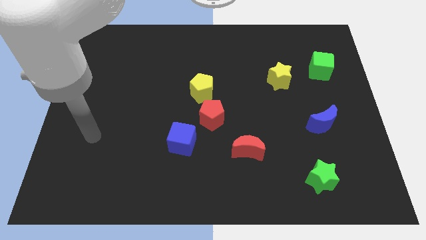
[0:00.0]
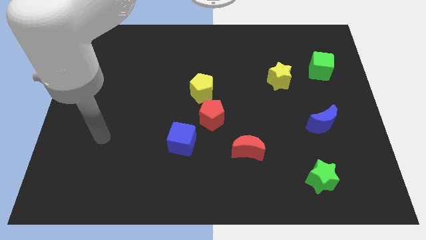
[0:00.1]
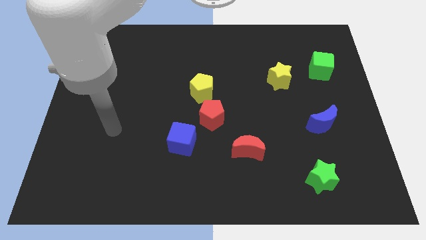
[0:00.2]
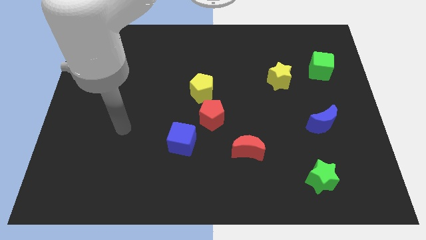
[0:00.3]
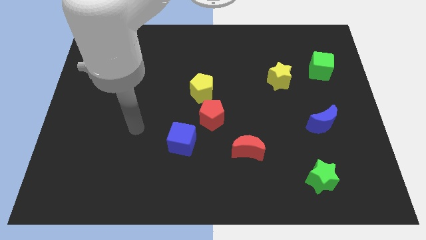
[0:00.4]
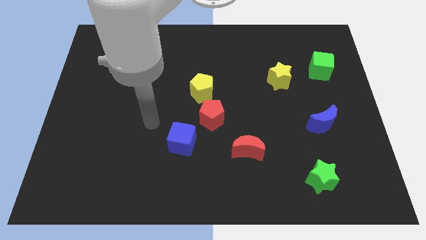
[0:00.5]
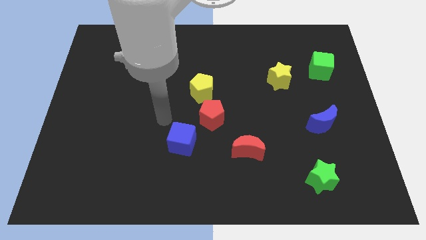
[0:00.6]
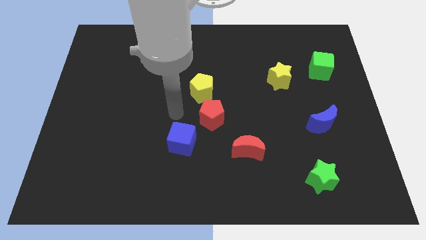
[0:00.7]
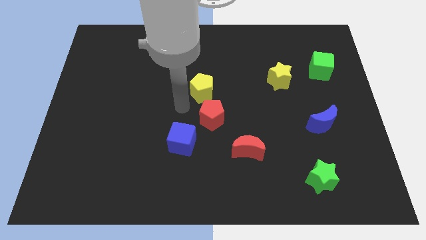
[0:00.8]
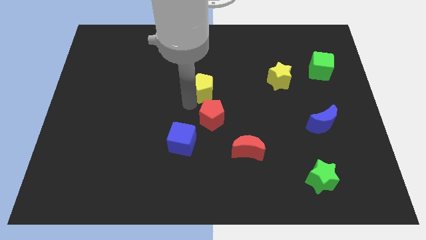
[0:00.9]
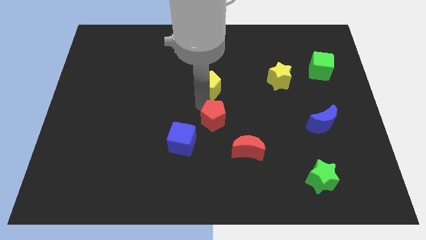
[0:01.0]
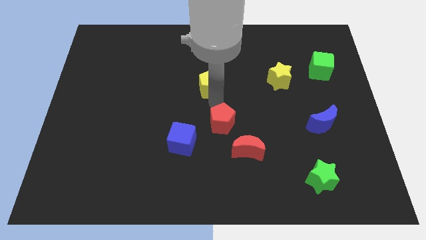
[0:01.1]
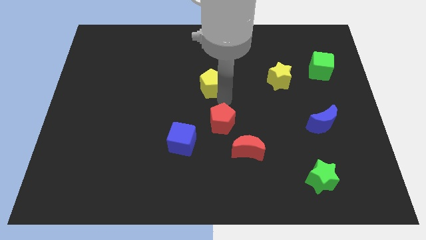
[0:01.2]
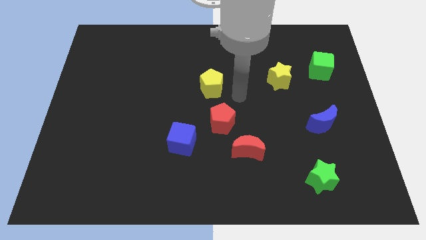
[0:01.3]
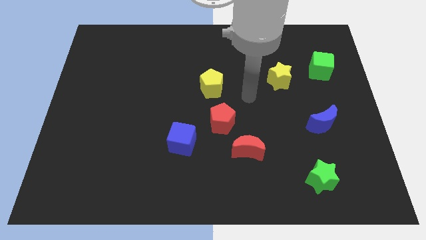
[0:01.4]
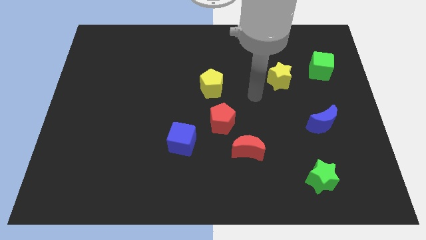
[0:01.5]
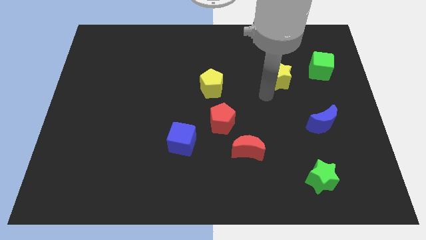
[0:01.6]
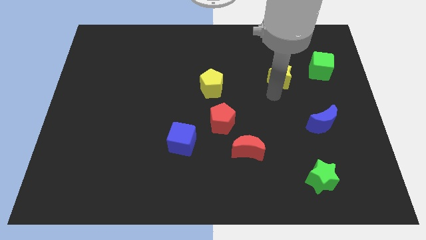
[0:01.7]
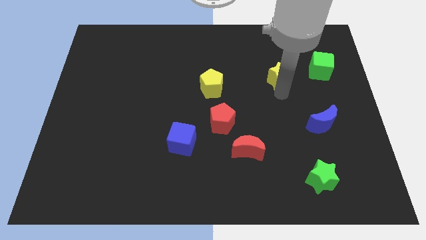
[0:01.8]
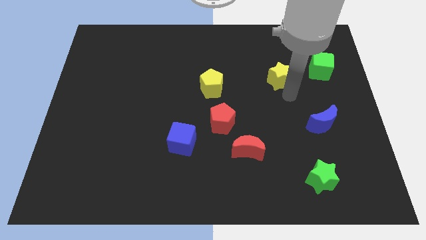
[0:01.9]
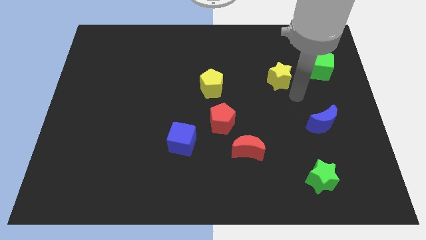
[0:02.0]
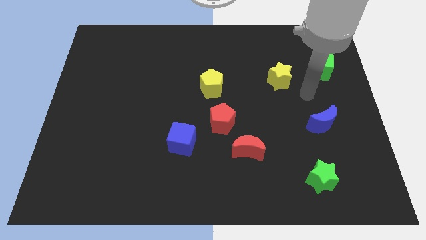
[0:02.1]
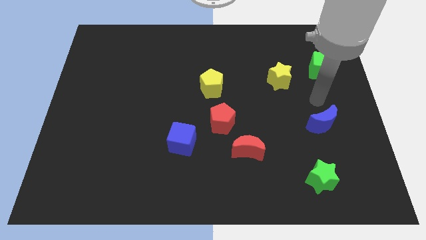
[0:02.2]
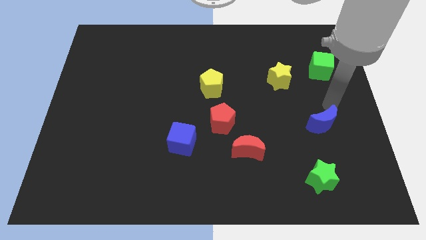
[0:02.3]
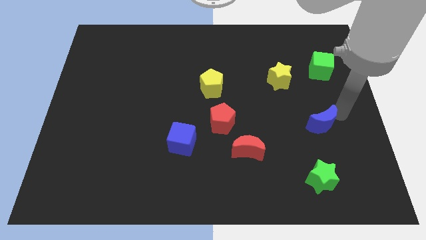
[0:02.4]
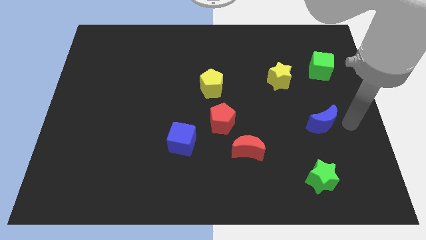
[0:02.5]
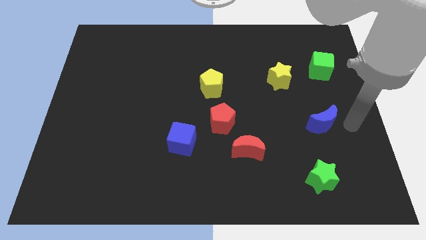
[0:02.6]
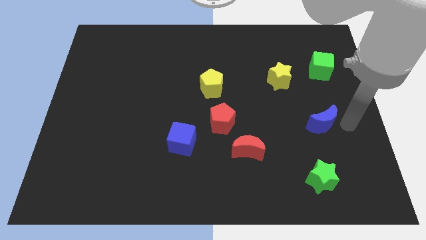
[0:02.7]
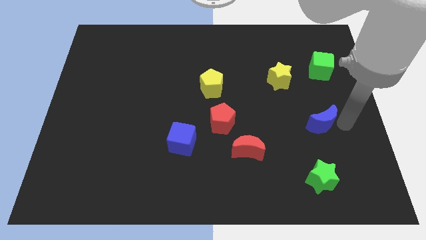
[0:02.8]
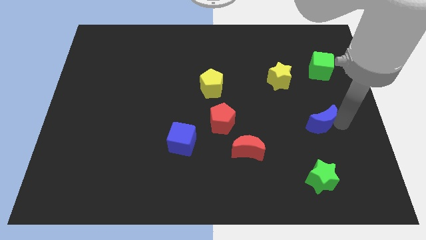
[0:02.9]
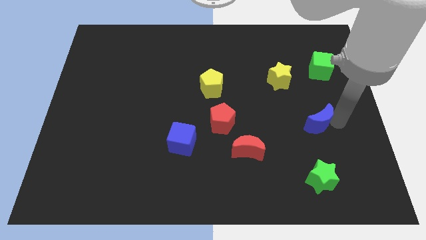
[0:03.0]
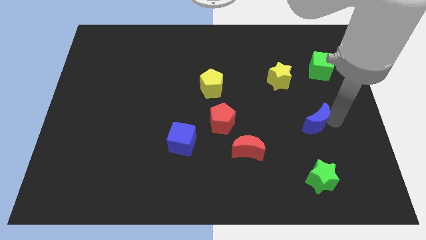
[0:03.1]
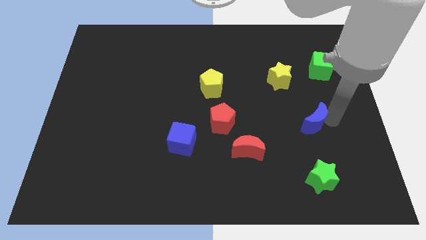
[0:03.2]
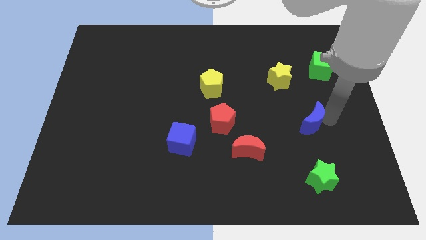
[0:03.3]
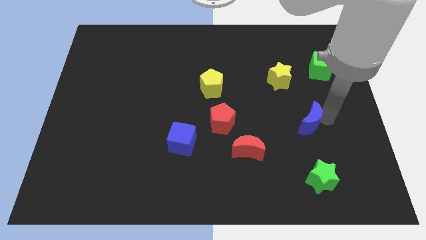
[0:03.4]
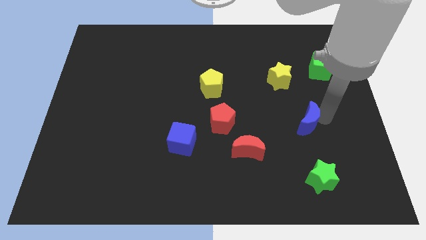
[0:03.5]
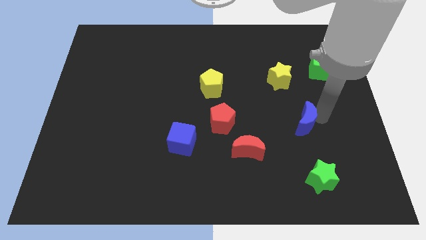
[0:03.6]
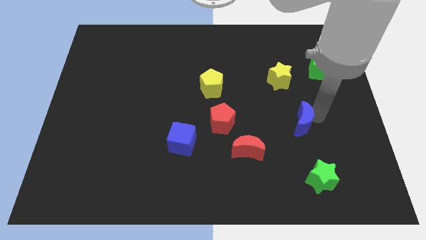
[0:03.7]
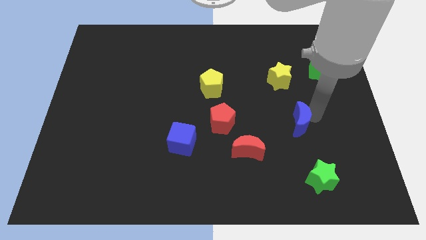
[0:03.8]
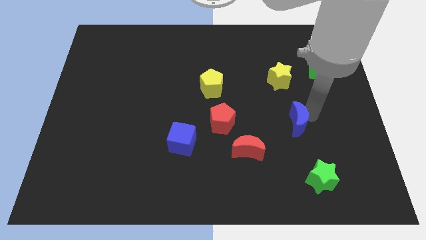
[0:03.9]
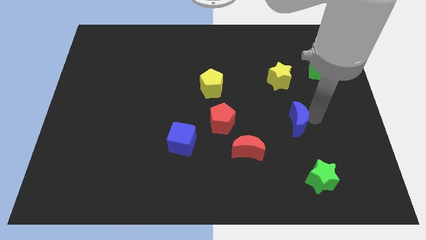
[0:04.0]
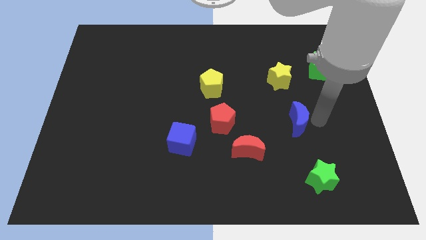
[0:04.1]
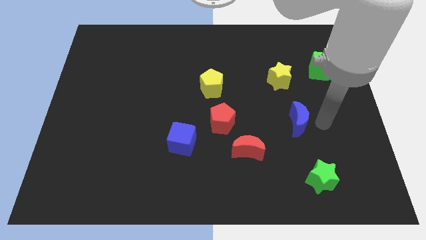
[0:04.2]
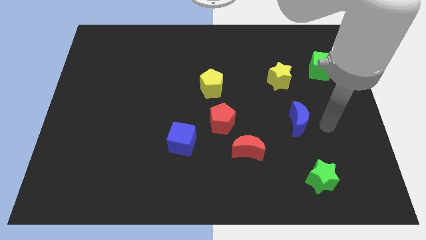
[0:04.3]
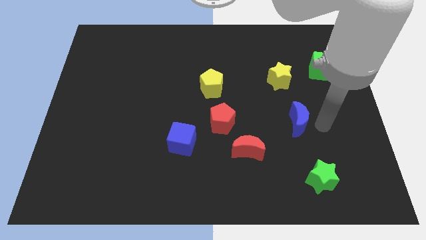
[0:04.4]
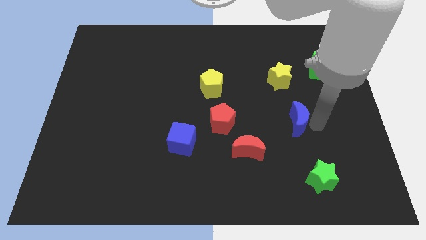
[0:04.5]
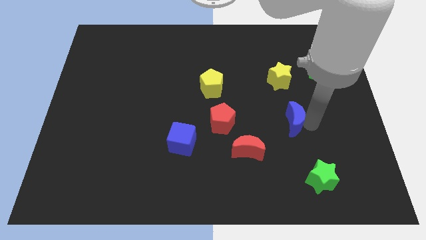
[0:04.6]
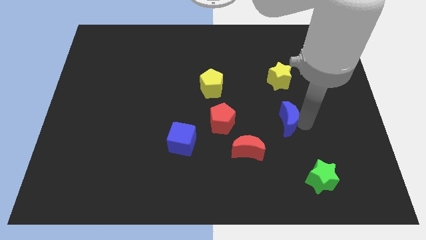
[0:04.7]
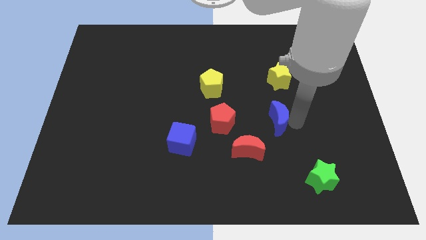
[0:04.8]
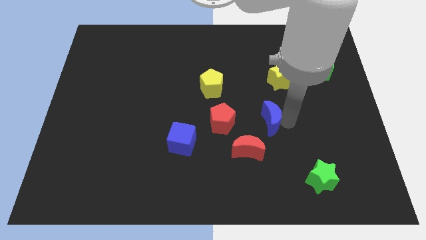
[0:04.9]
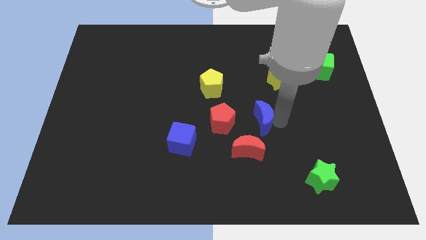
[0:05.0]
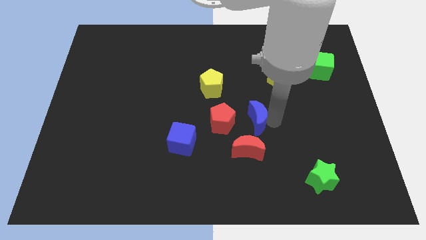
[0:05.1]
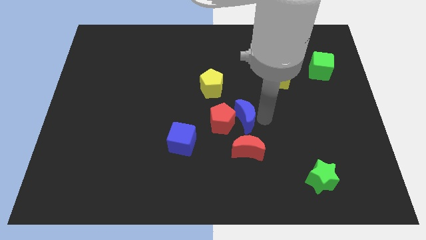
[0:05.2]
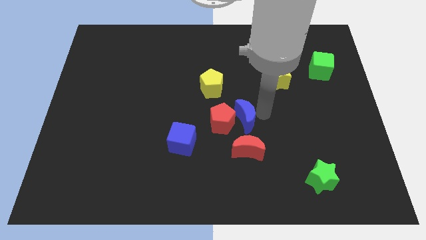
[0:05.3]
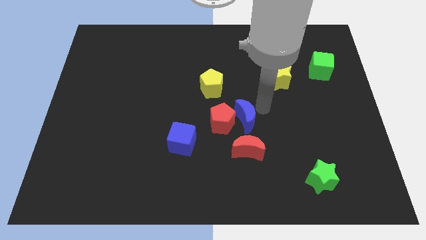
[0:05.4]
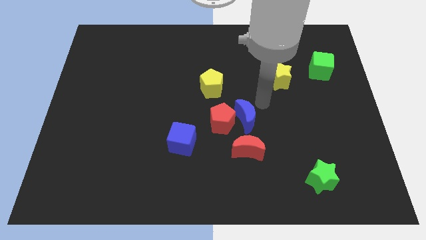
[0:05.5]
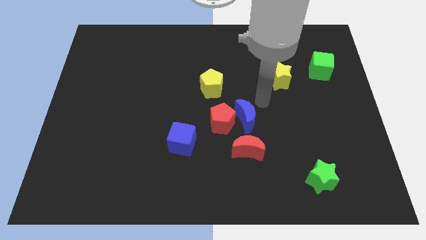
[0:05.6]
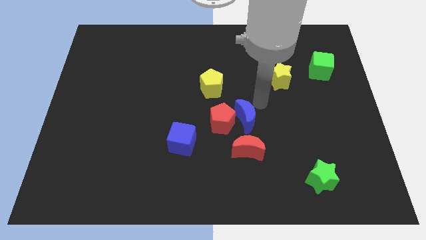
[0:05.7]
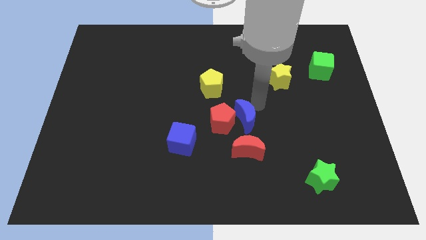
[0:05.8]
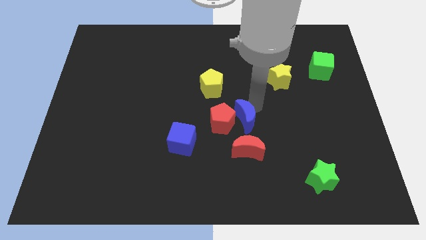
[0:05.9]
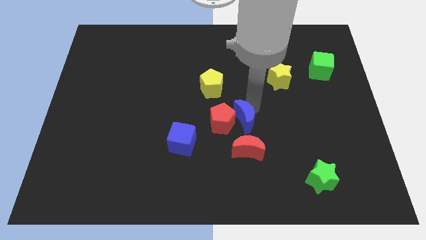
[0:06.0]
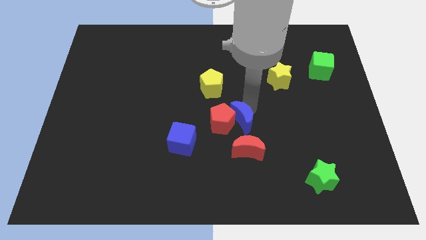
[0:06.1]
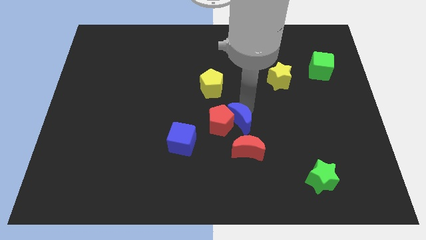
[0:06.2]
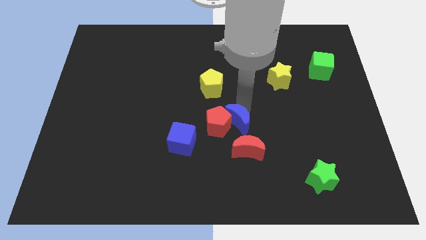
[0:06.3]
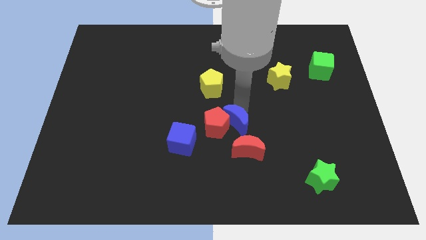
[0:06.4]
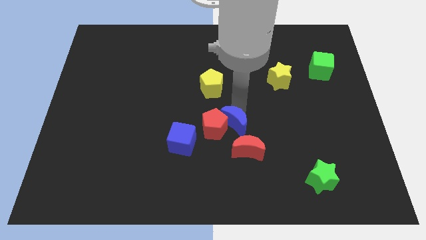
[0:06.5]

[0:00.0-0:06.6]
push the blue moon left

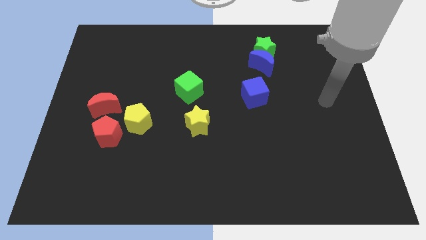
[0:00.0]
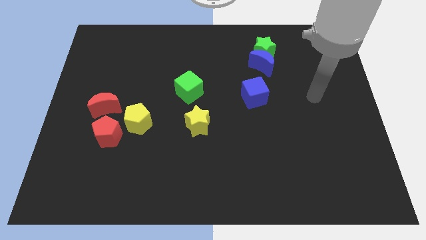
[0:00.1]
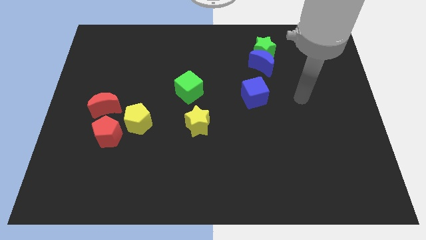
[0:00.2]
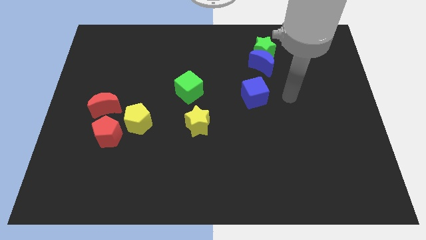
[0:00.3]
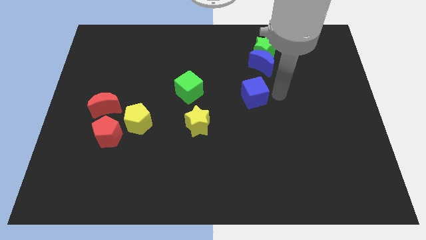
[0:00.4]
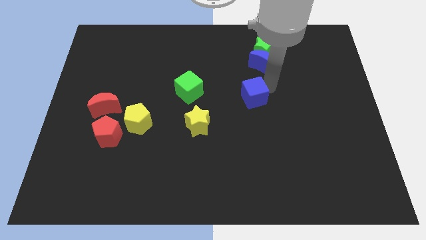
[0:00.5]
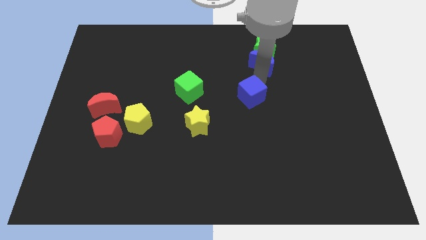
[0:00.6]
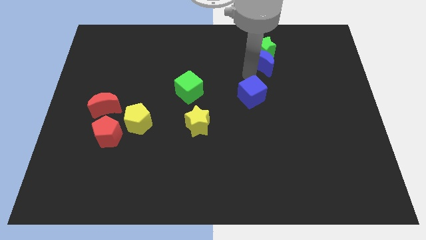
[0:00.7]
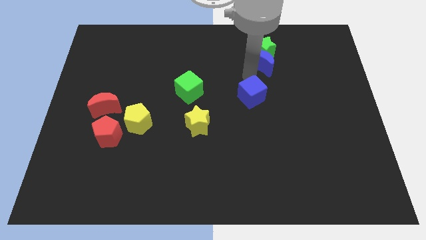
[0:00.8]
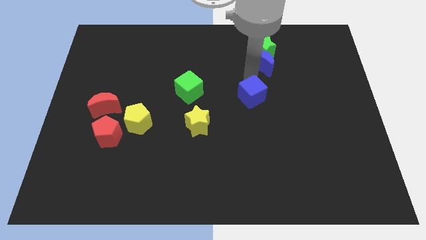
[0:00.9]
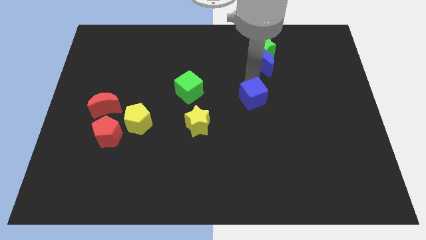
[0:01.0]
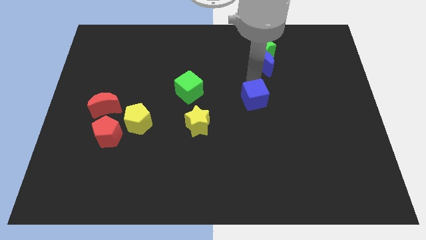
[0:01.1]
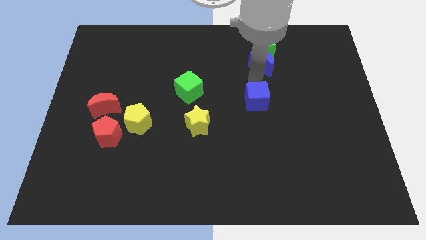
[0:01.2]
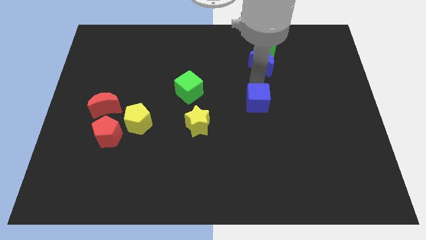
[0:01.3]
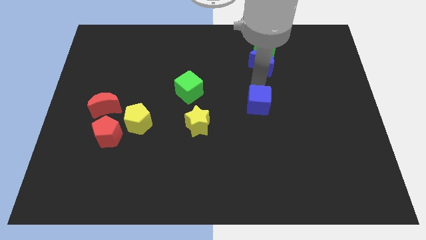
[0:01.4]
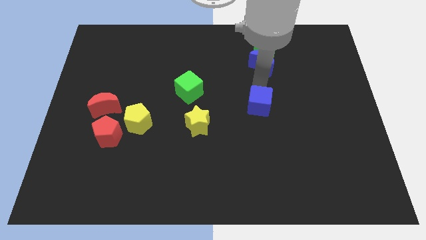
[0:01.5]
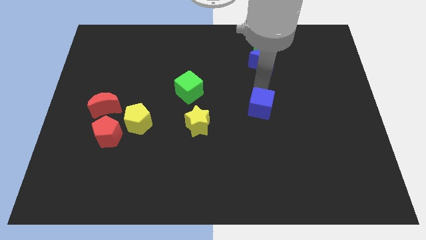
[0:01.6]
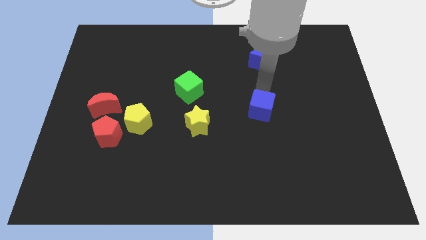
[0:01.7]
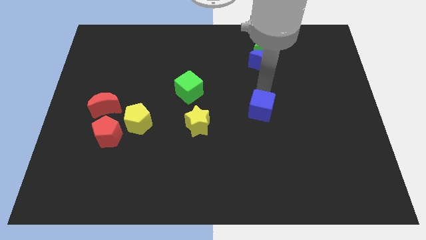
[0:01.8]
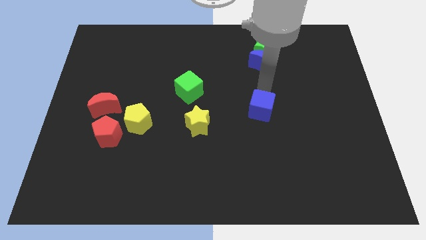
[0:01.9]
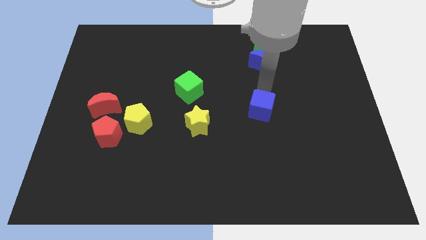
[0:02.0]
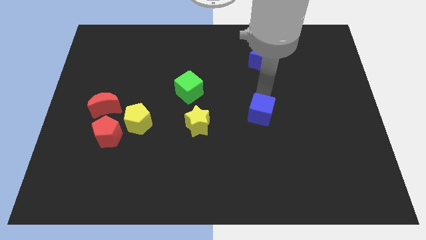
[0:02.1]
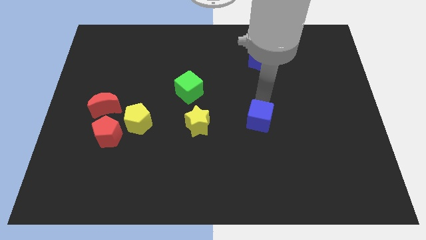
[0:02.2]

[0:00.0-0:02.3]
slightly push the blue cube downwards
